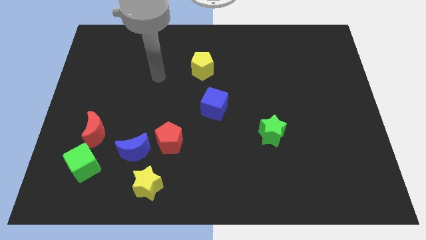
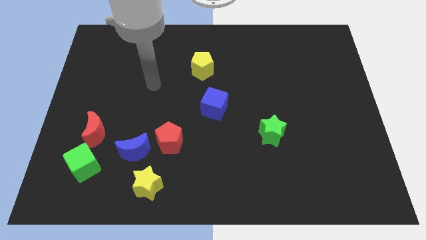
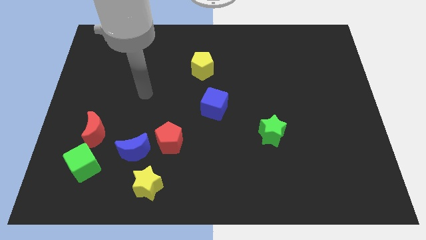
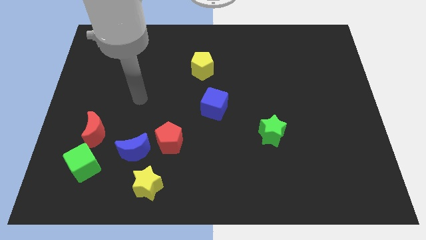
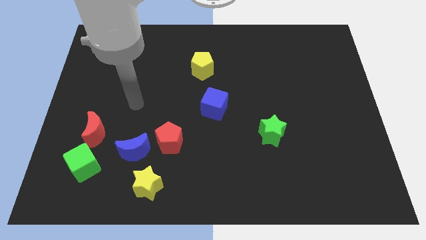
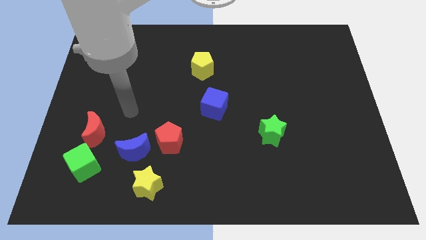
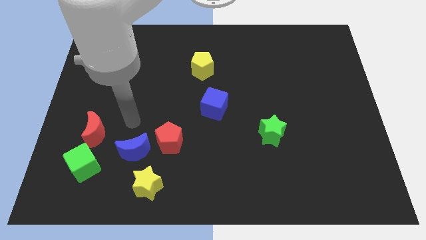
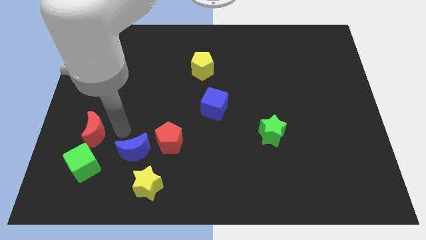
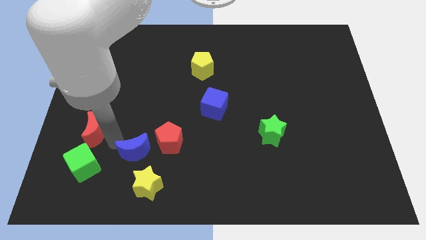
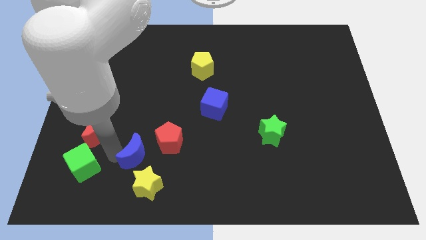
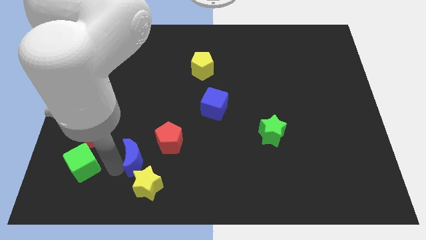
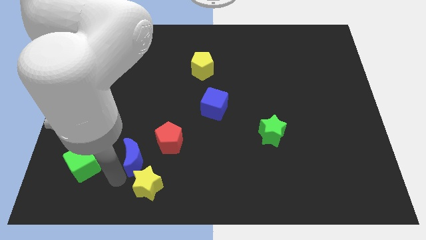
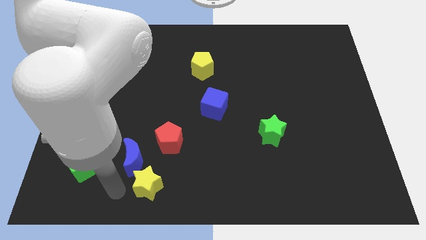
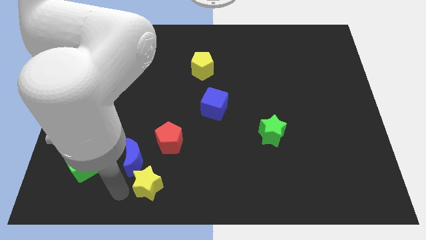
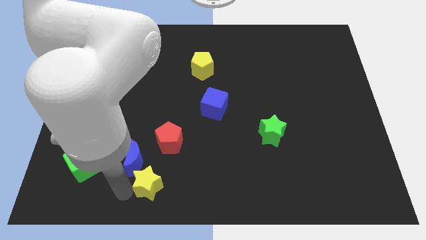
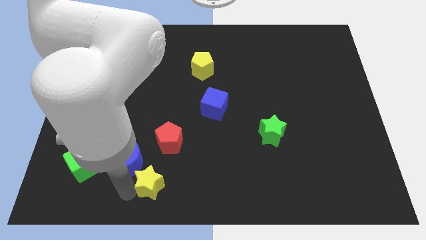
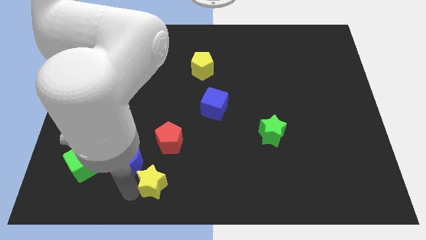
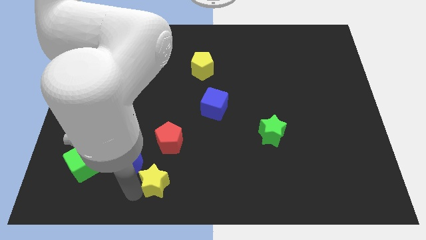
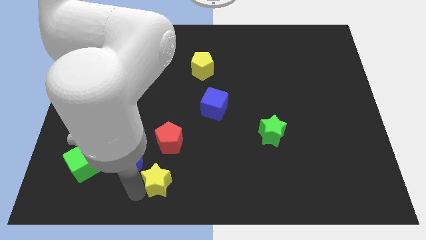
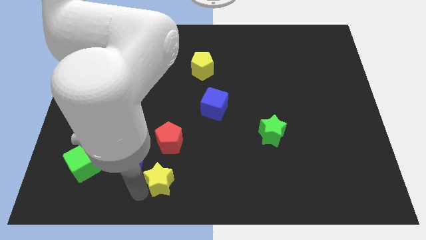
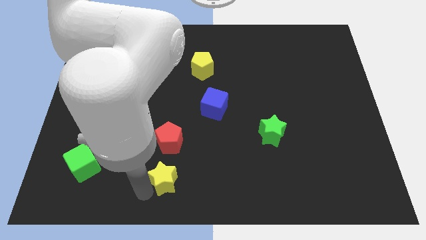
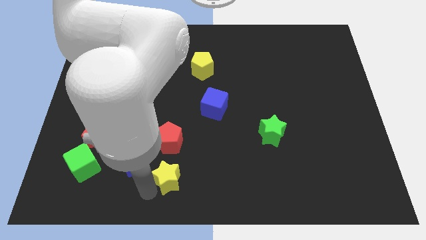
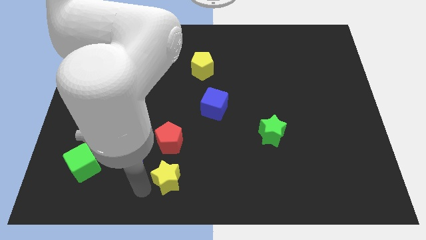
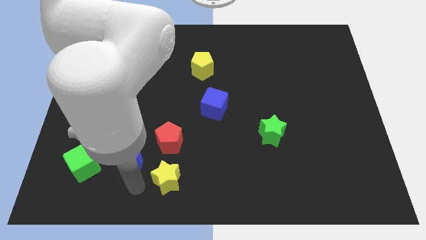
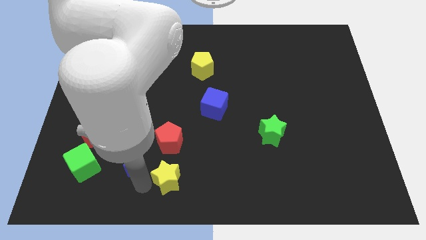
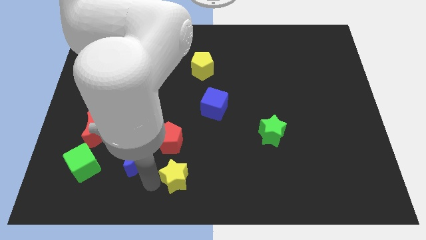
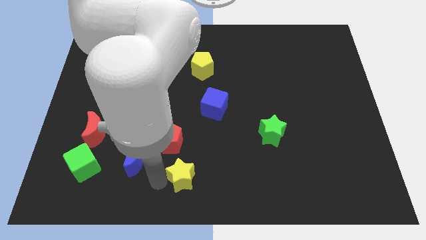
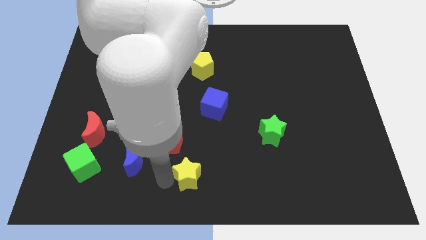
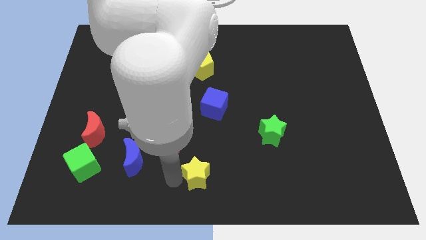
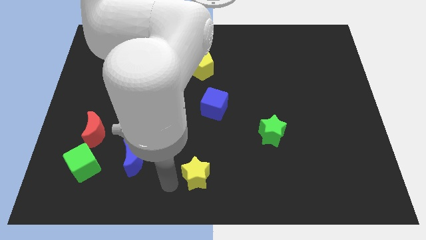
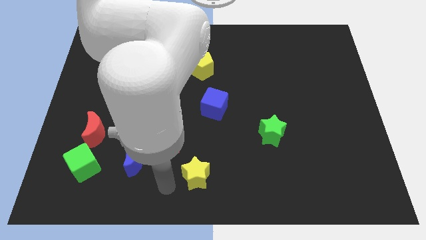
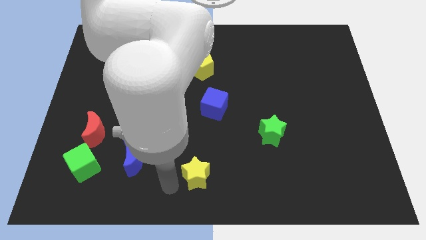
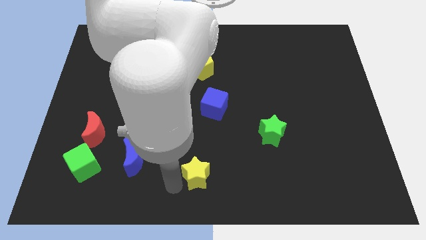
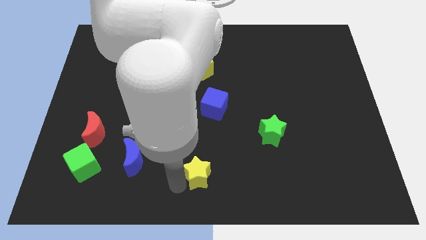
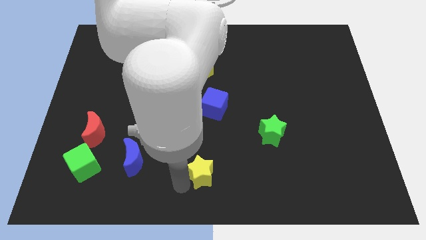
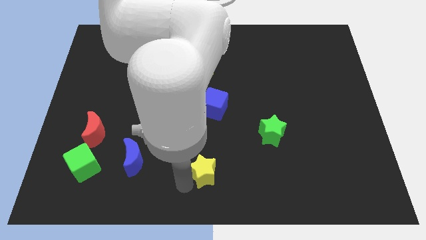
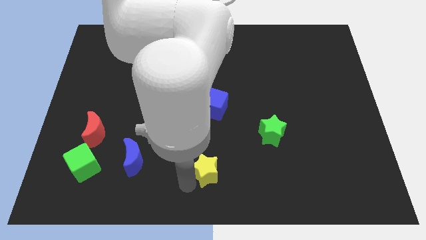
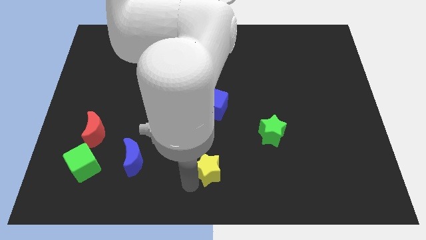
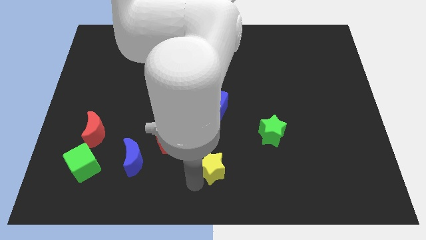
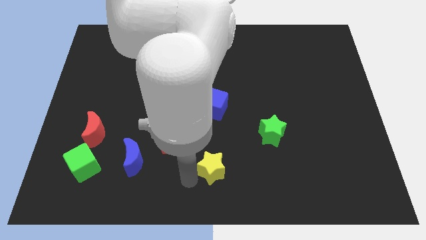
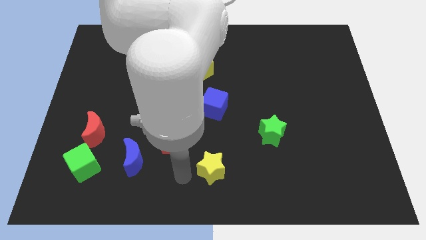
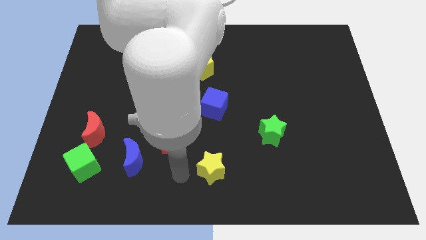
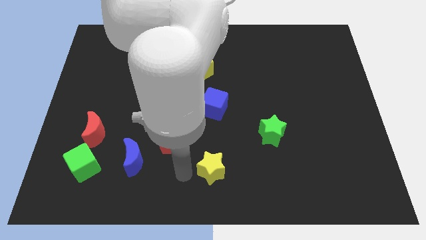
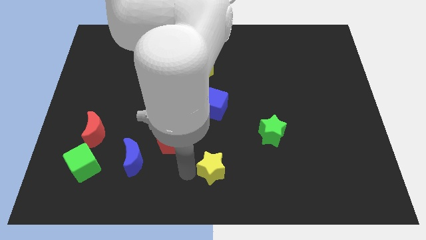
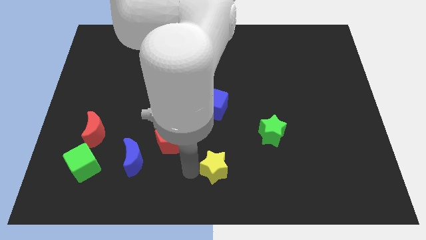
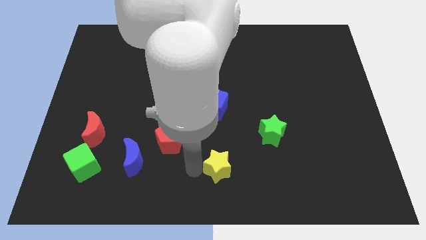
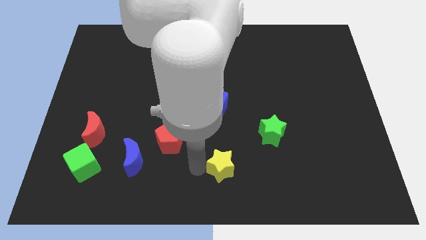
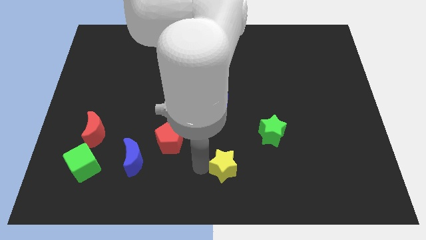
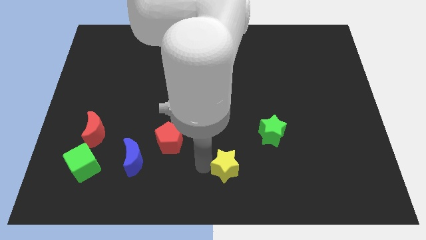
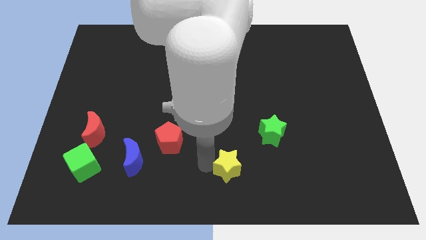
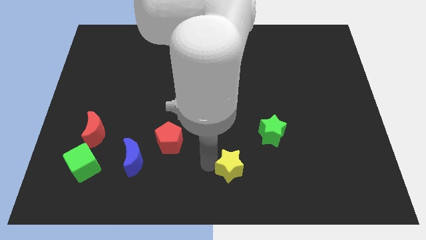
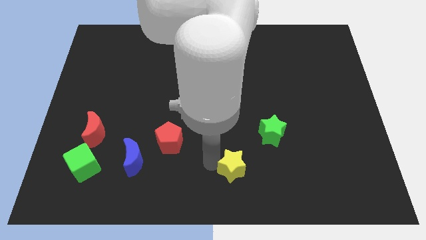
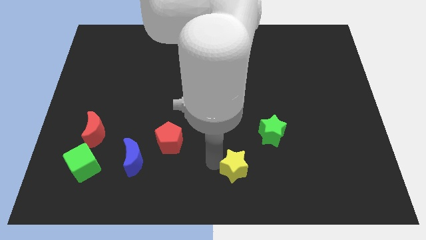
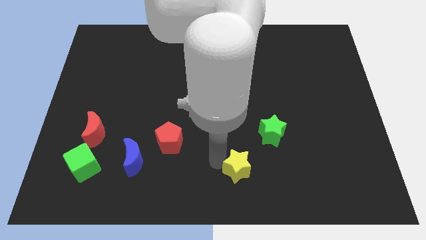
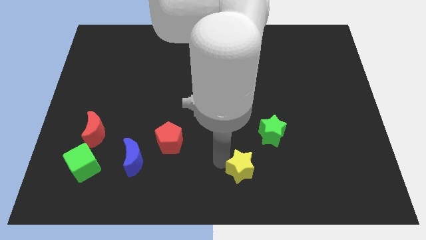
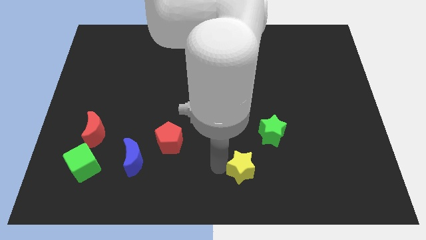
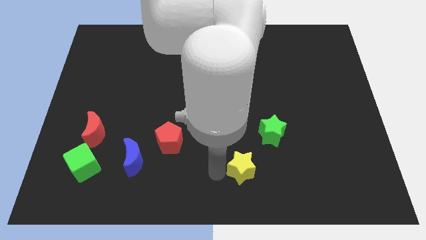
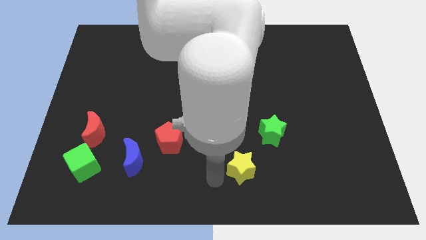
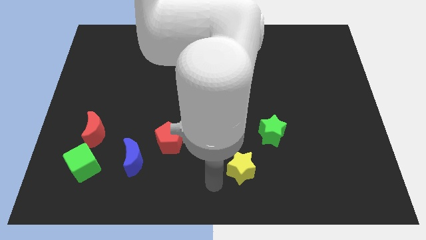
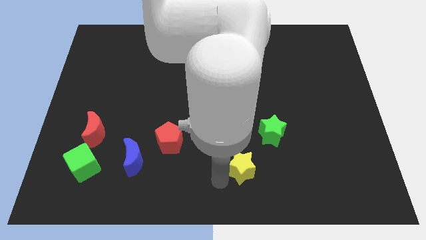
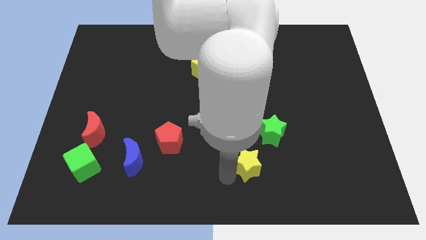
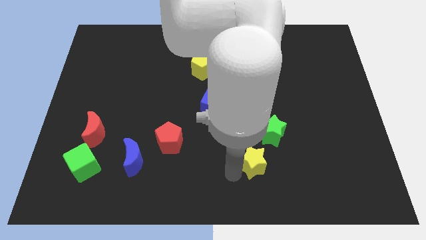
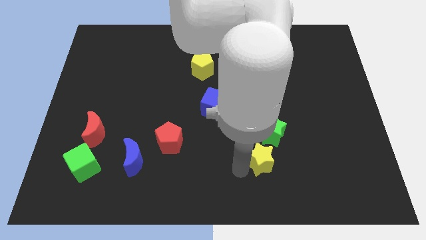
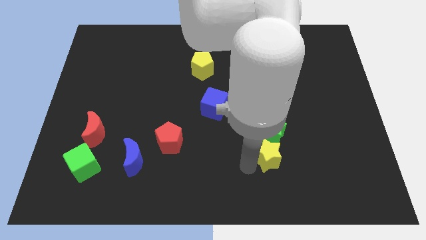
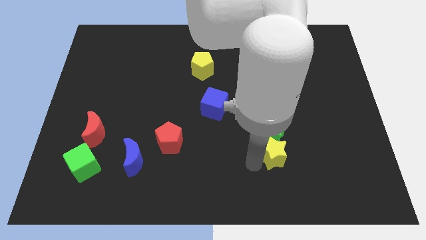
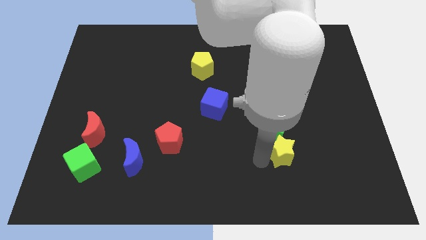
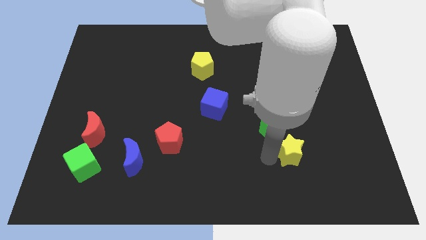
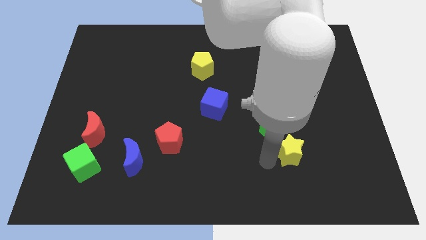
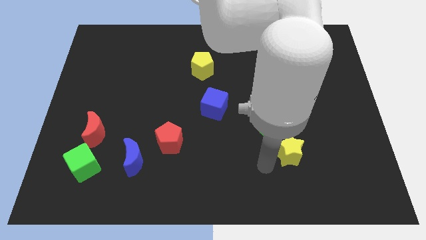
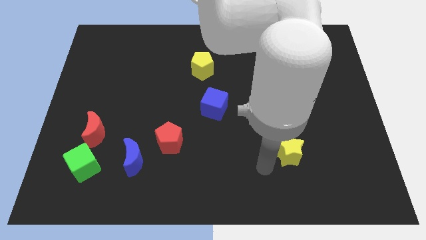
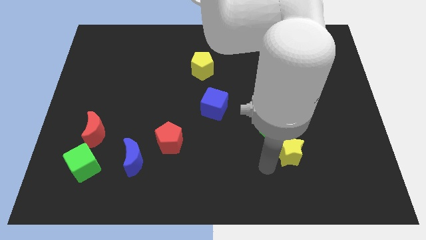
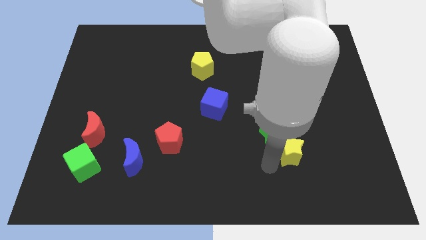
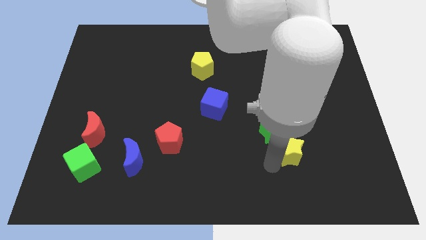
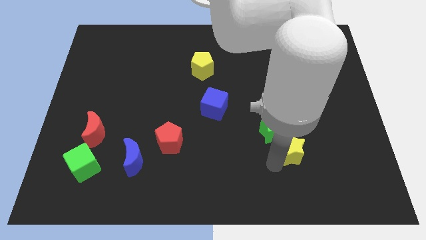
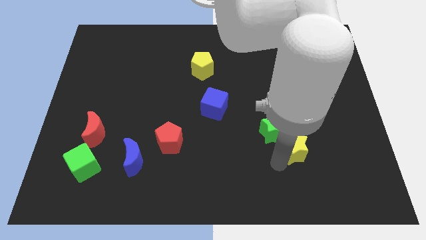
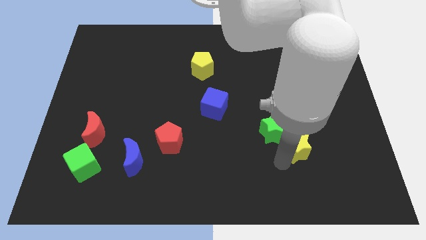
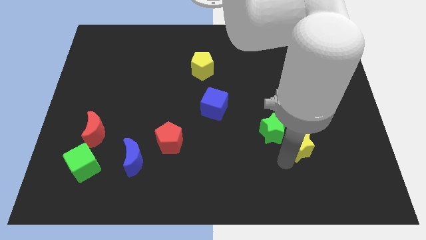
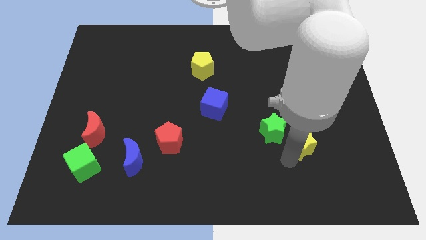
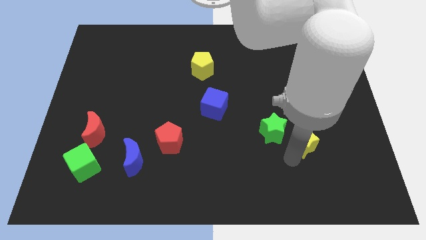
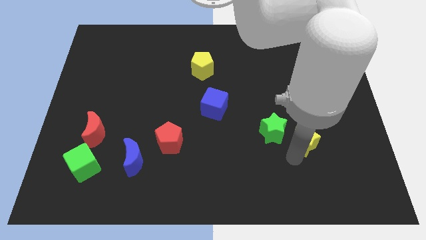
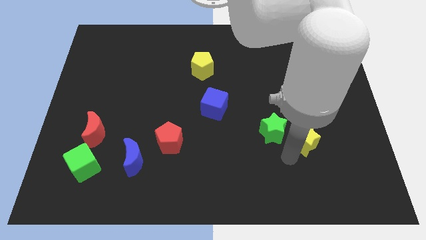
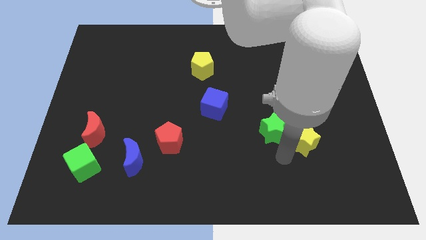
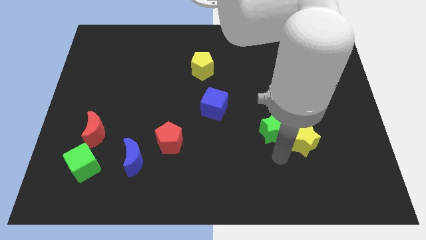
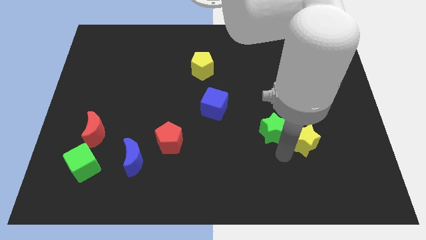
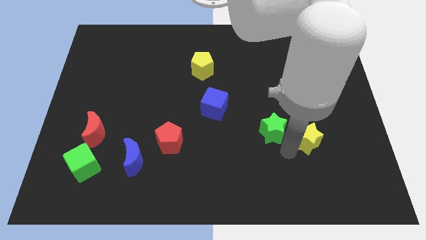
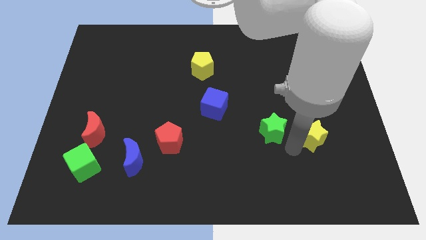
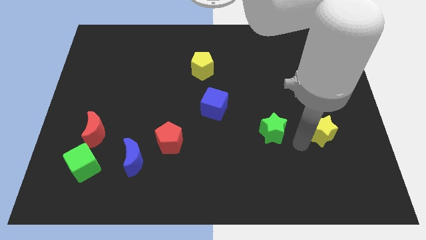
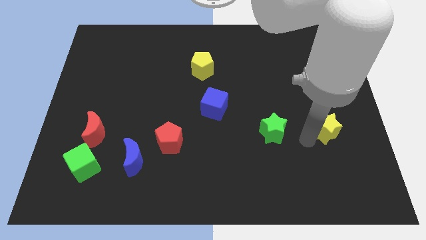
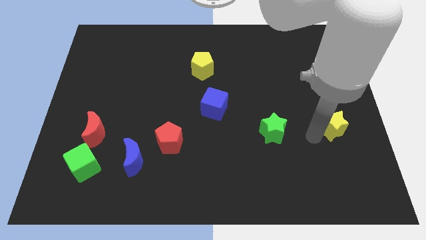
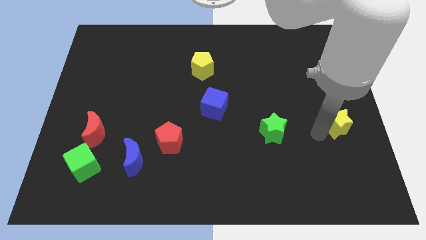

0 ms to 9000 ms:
push the yellow star to the right side of the board
